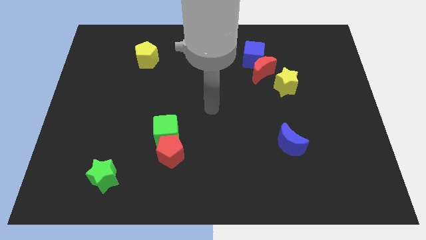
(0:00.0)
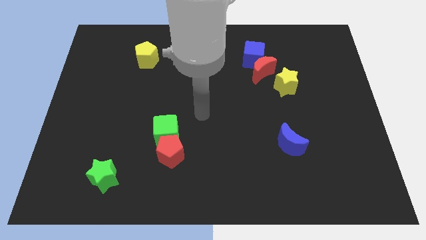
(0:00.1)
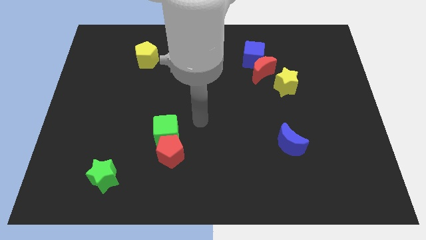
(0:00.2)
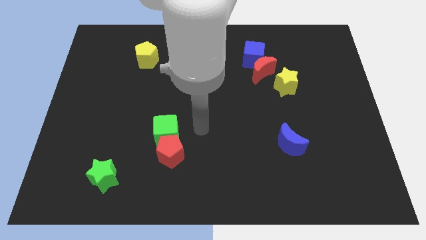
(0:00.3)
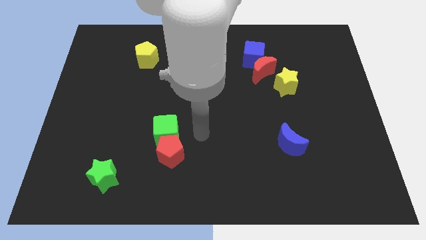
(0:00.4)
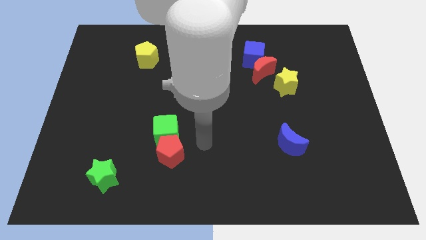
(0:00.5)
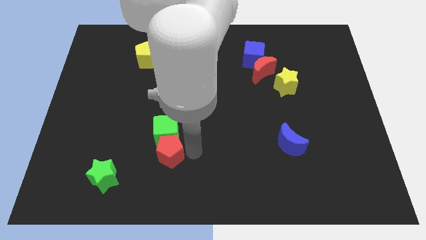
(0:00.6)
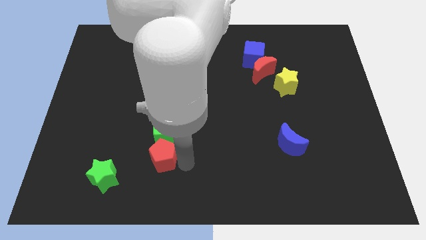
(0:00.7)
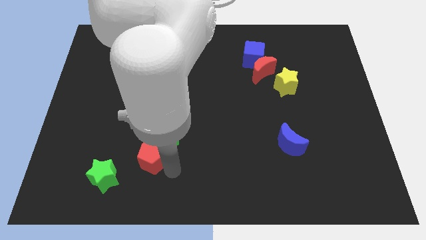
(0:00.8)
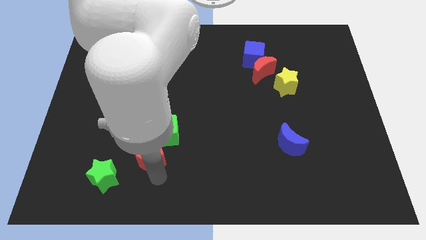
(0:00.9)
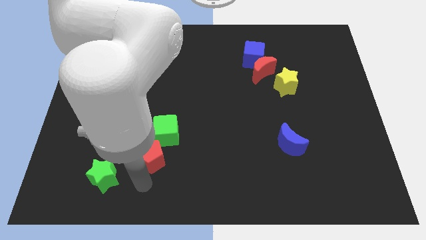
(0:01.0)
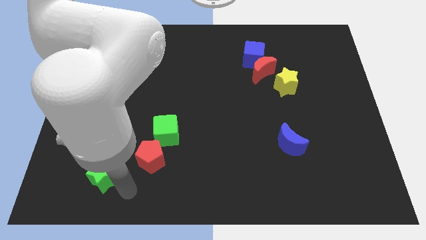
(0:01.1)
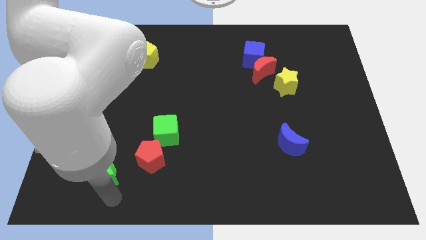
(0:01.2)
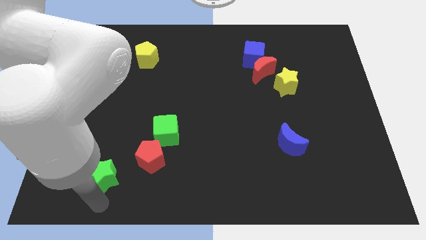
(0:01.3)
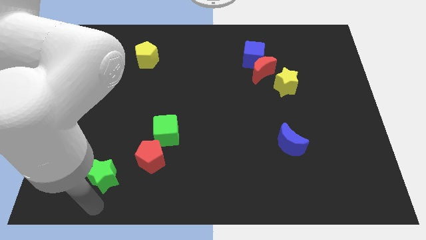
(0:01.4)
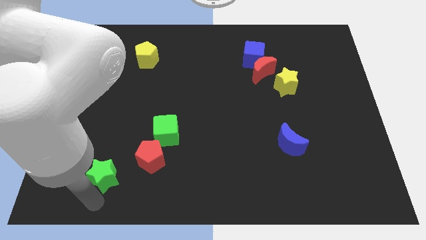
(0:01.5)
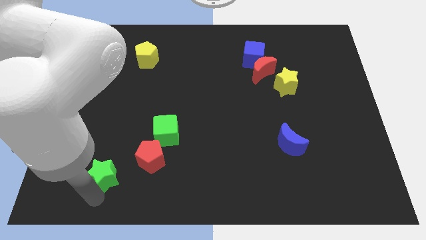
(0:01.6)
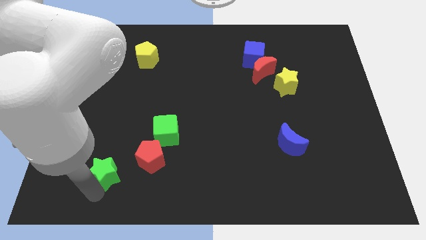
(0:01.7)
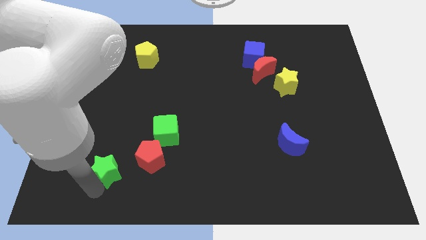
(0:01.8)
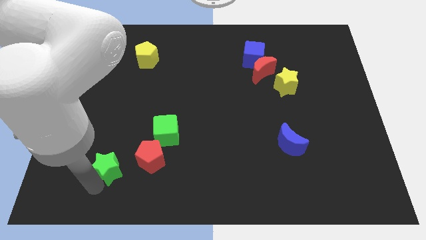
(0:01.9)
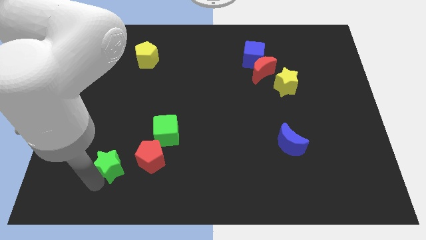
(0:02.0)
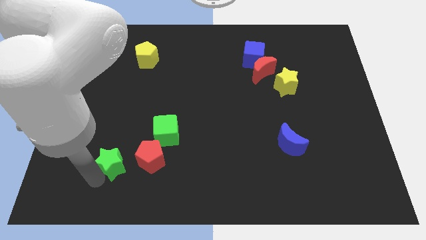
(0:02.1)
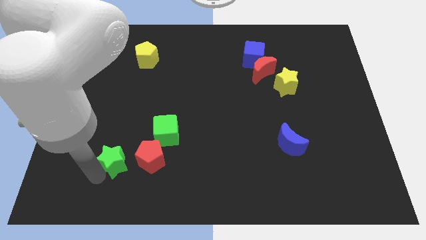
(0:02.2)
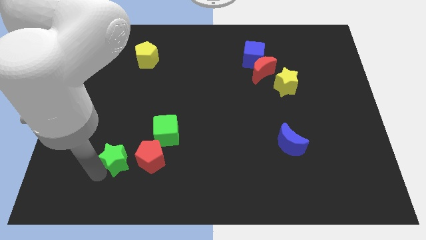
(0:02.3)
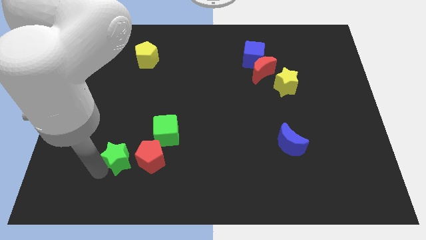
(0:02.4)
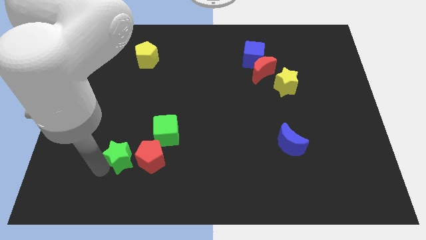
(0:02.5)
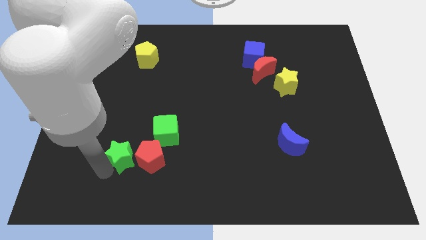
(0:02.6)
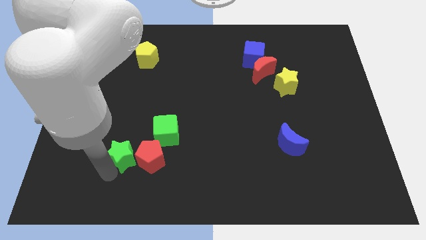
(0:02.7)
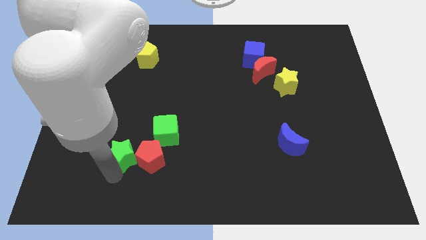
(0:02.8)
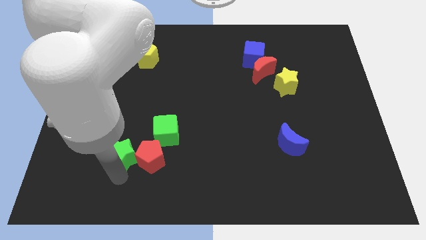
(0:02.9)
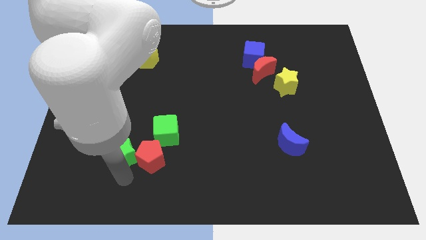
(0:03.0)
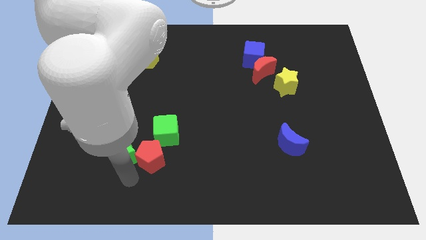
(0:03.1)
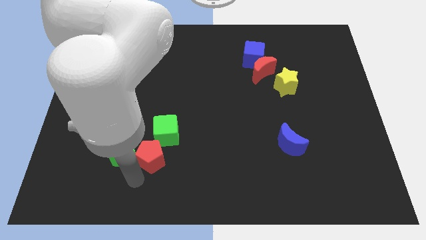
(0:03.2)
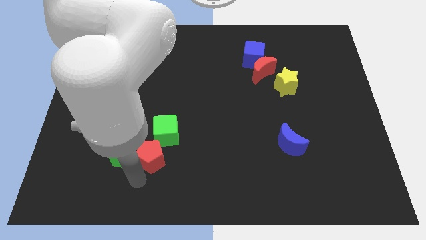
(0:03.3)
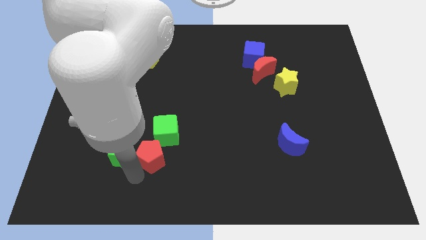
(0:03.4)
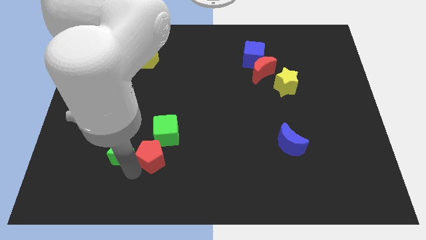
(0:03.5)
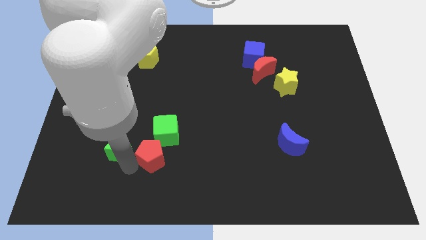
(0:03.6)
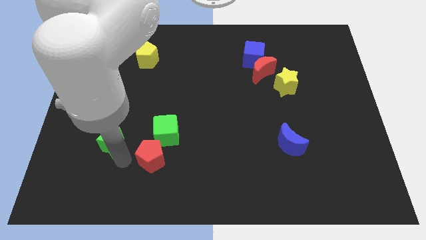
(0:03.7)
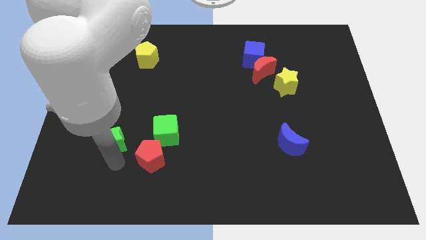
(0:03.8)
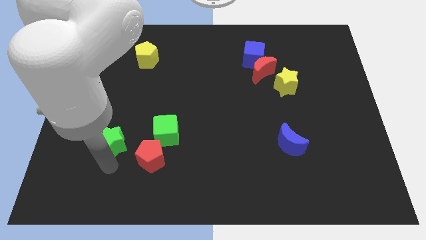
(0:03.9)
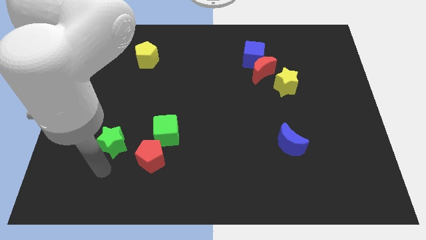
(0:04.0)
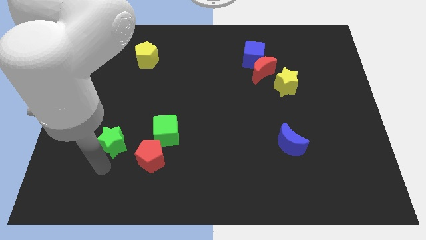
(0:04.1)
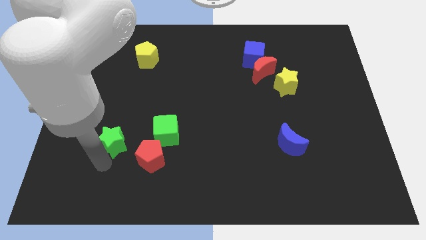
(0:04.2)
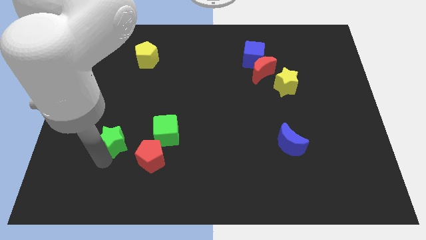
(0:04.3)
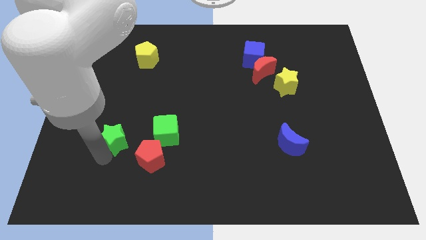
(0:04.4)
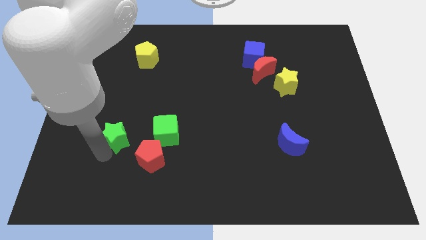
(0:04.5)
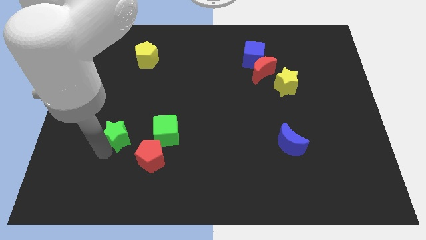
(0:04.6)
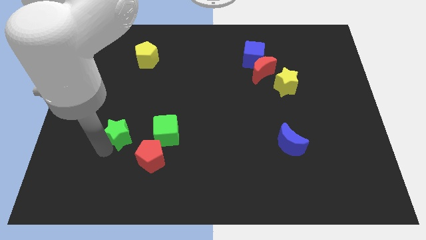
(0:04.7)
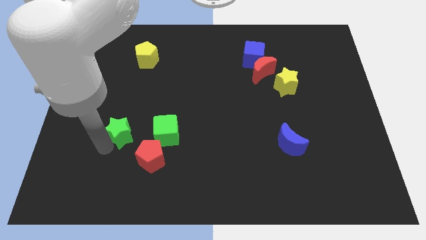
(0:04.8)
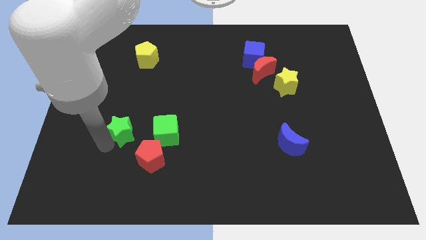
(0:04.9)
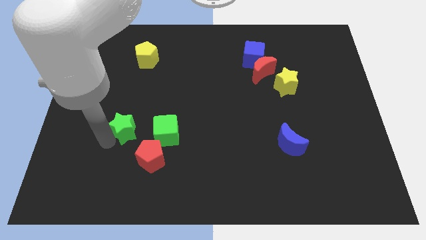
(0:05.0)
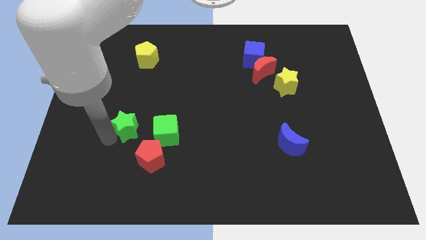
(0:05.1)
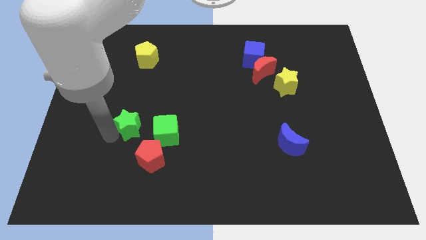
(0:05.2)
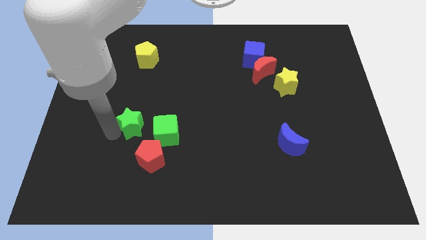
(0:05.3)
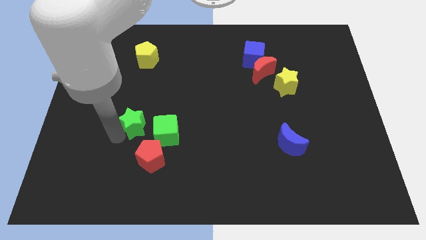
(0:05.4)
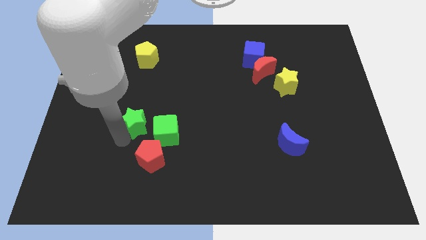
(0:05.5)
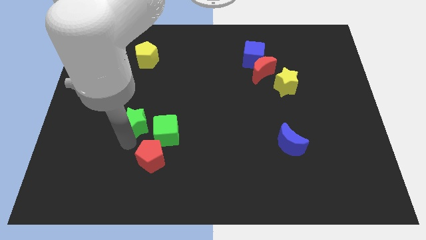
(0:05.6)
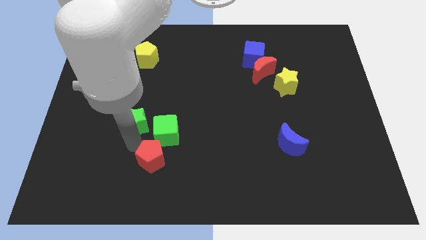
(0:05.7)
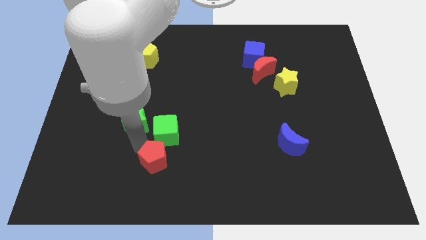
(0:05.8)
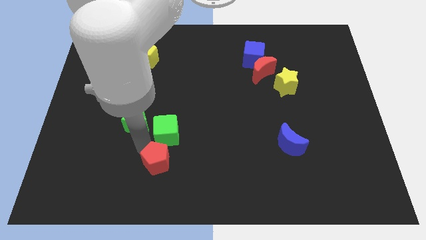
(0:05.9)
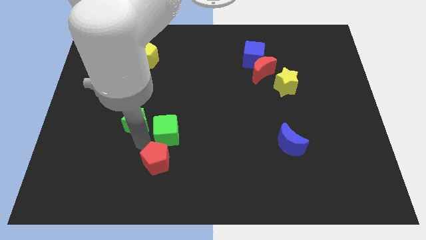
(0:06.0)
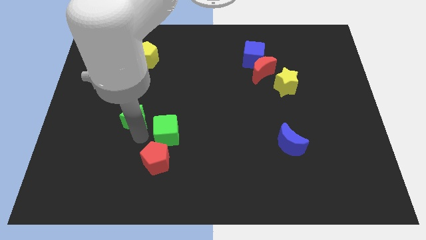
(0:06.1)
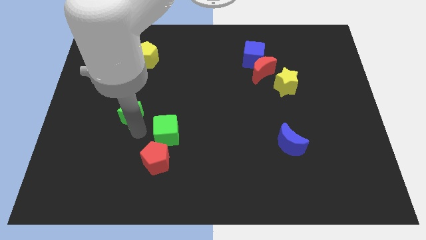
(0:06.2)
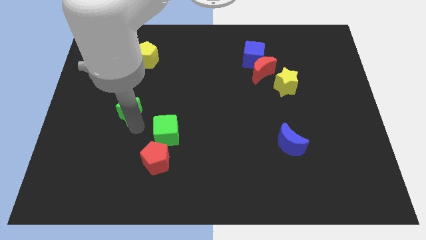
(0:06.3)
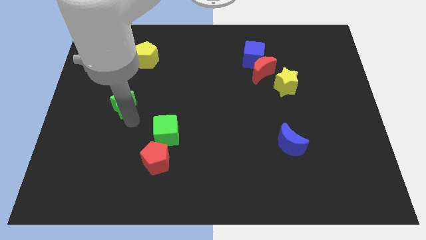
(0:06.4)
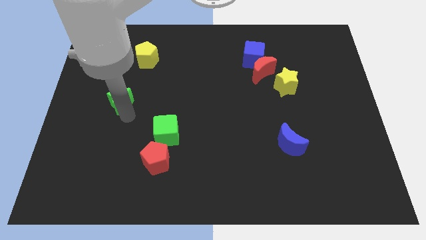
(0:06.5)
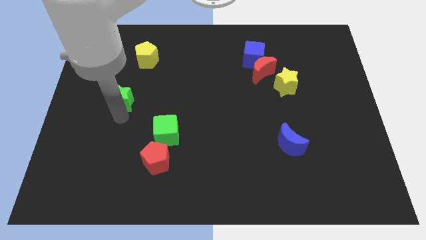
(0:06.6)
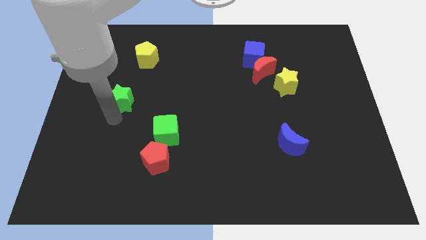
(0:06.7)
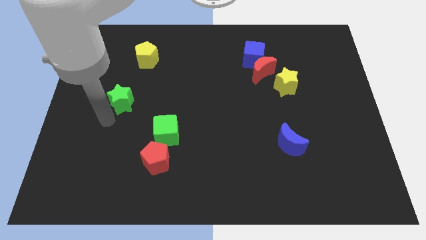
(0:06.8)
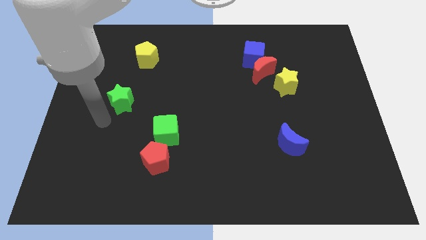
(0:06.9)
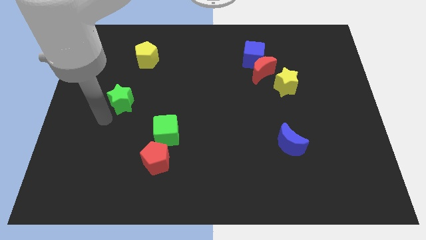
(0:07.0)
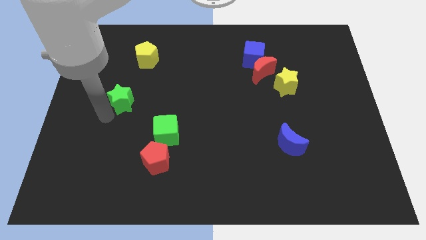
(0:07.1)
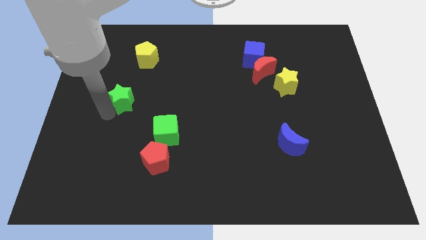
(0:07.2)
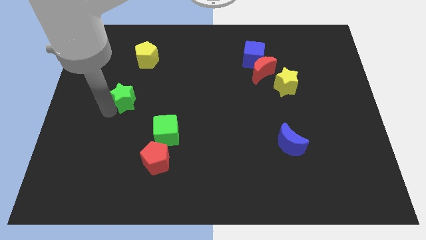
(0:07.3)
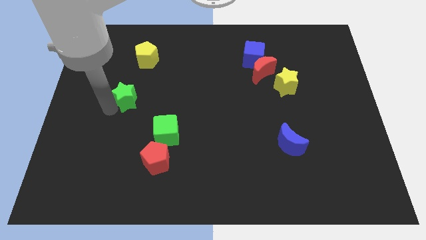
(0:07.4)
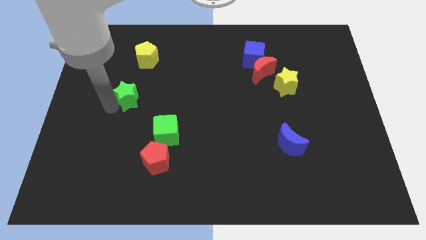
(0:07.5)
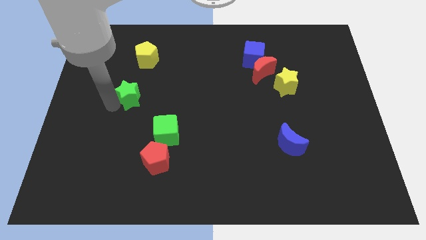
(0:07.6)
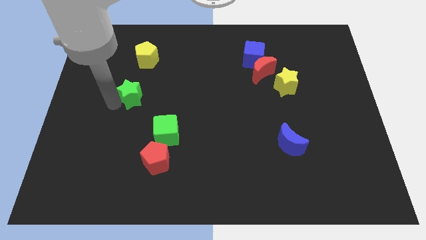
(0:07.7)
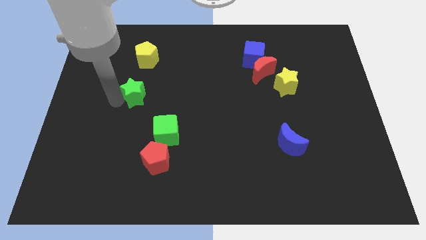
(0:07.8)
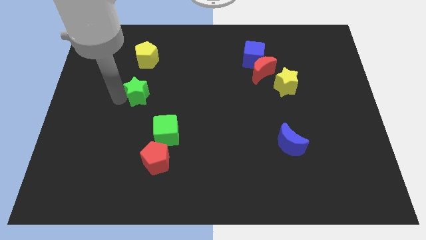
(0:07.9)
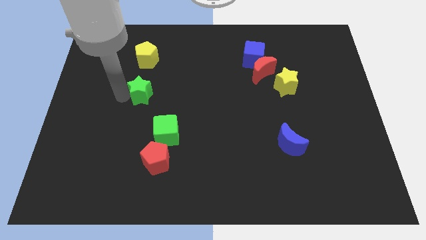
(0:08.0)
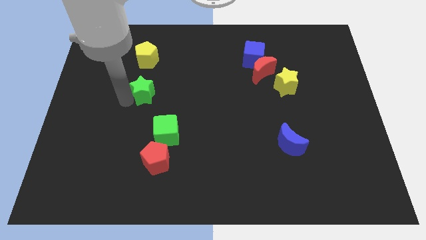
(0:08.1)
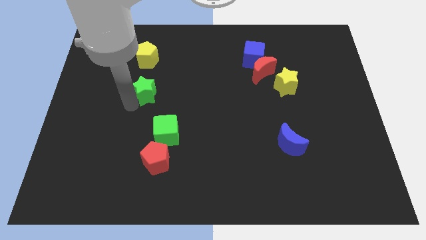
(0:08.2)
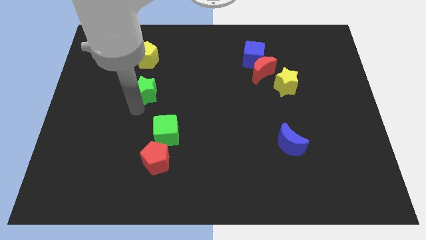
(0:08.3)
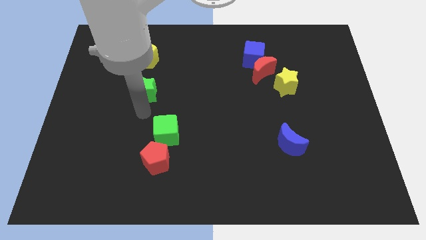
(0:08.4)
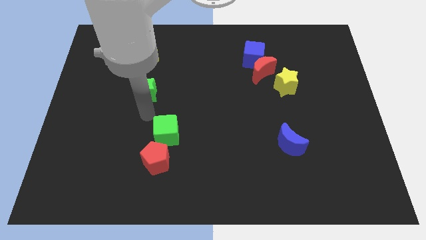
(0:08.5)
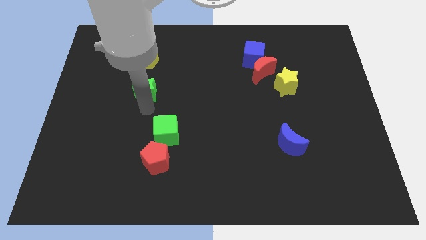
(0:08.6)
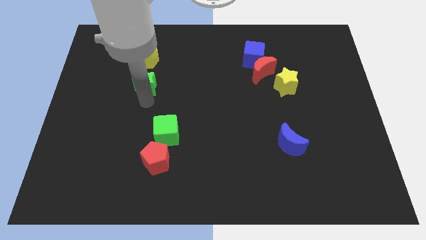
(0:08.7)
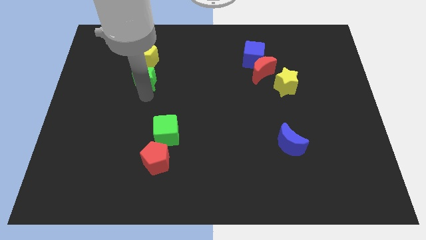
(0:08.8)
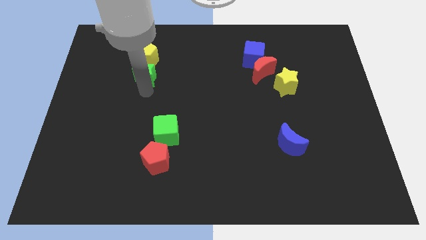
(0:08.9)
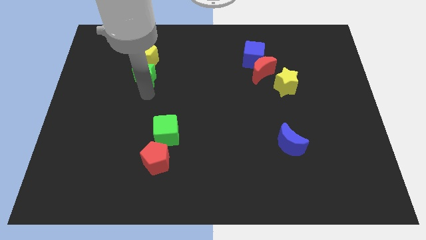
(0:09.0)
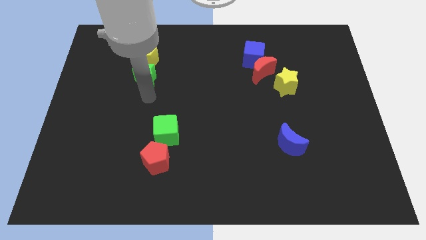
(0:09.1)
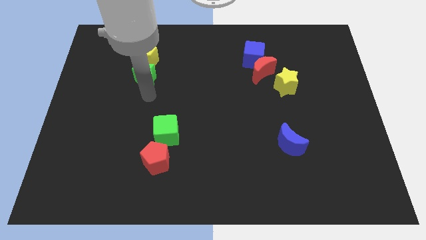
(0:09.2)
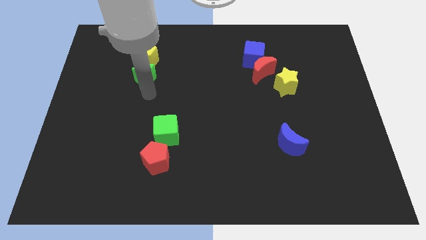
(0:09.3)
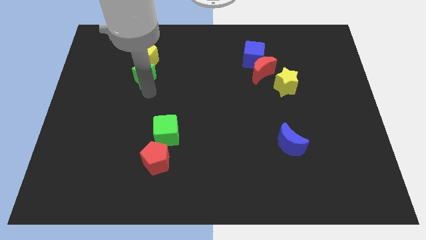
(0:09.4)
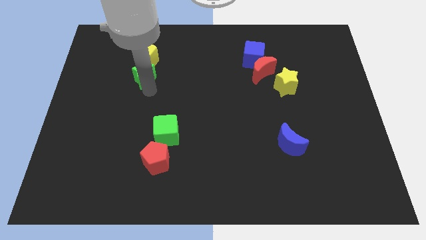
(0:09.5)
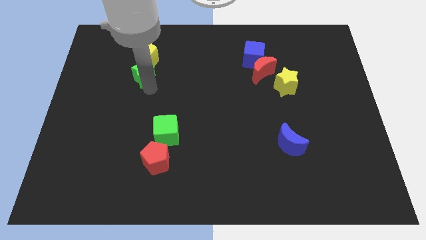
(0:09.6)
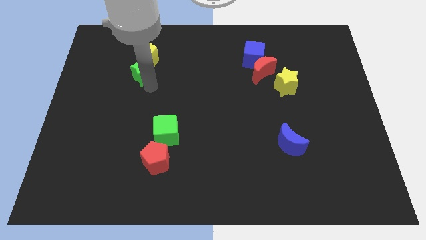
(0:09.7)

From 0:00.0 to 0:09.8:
put the green star close to the yellow pentagon
